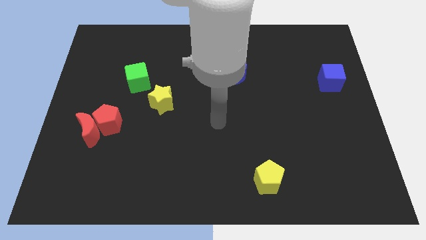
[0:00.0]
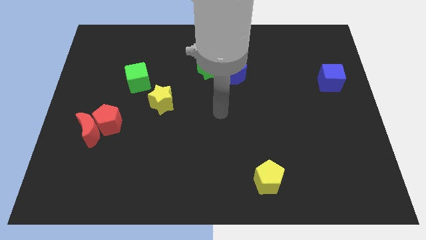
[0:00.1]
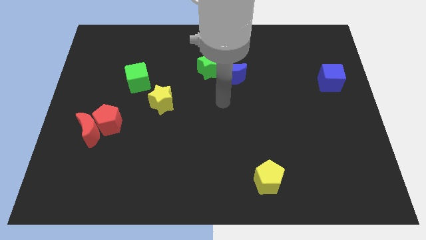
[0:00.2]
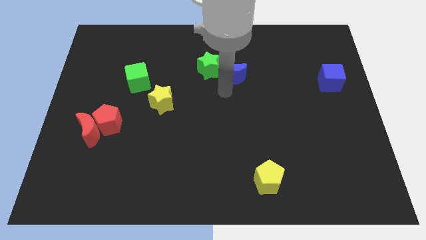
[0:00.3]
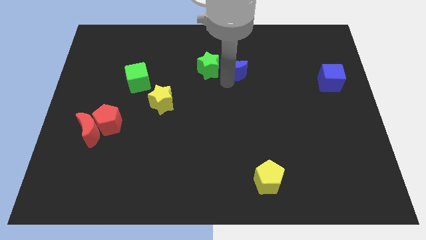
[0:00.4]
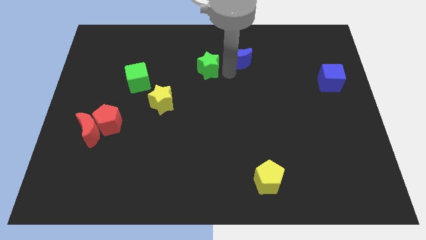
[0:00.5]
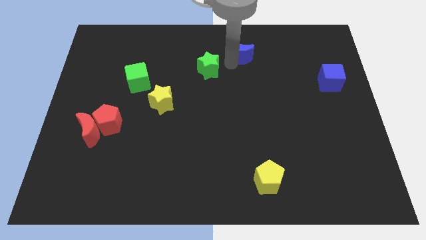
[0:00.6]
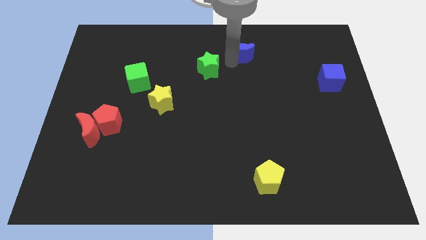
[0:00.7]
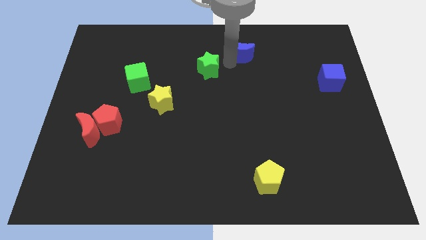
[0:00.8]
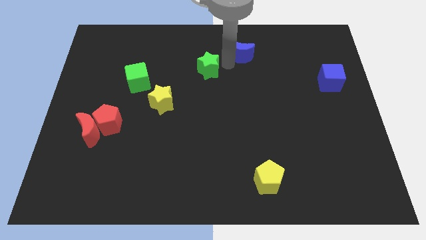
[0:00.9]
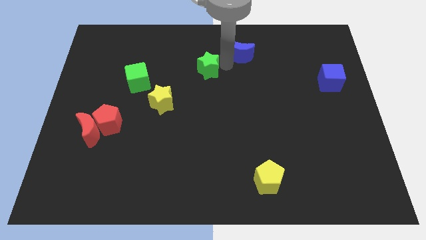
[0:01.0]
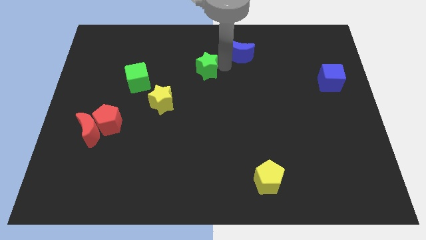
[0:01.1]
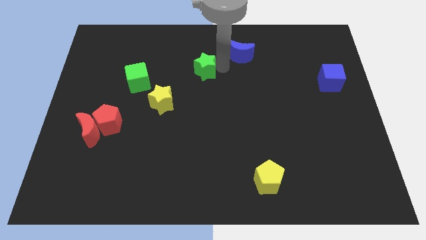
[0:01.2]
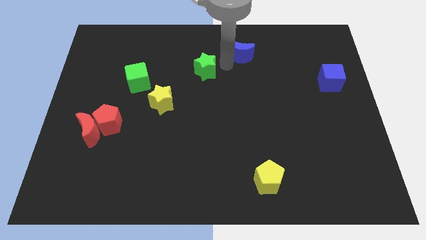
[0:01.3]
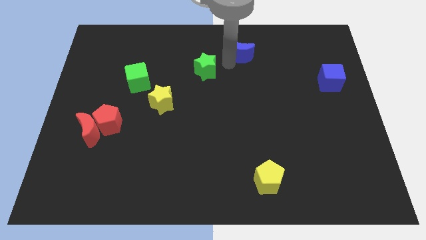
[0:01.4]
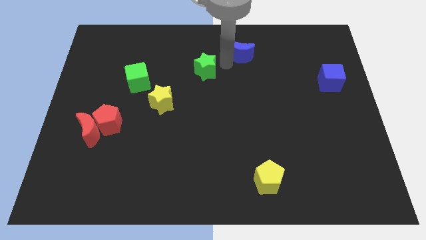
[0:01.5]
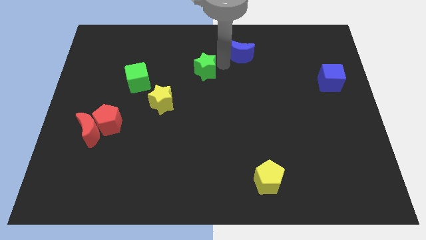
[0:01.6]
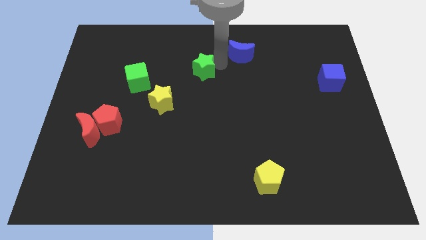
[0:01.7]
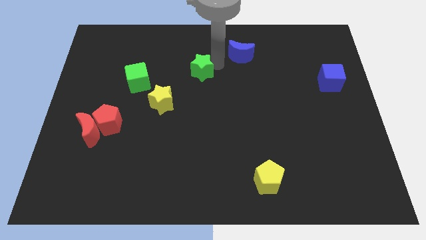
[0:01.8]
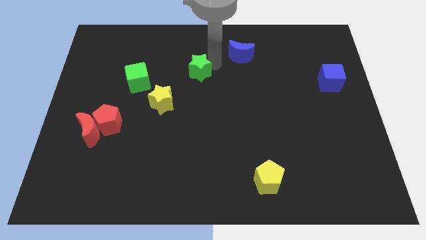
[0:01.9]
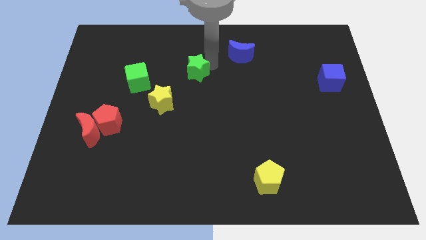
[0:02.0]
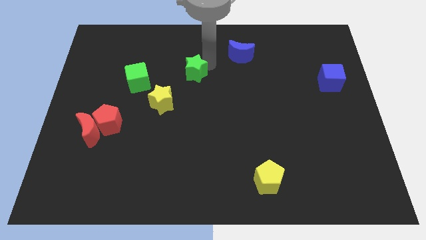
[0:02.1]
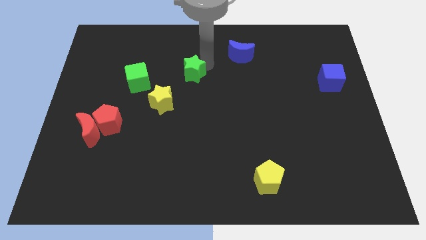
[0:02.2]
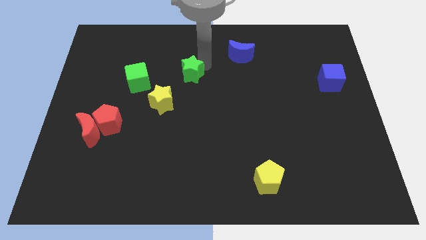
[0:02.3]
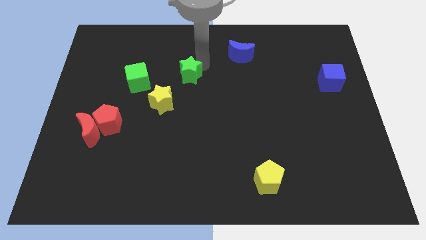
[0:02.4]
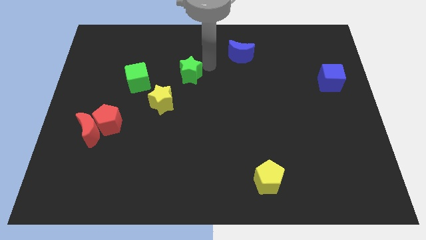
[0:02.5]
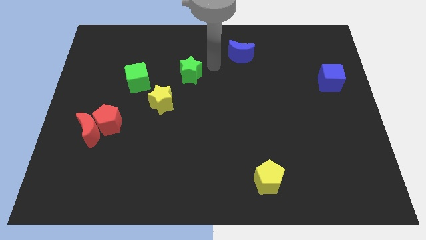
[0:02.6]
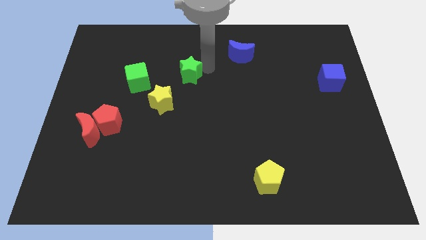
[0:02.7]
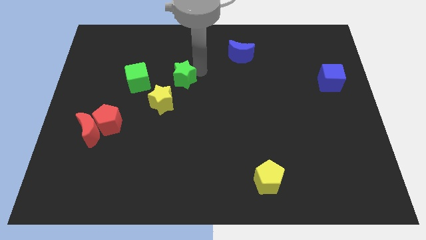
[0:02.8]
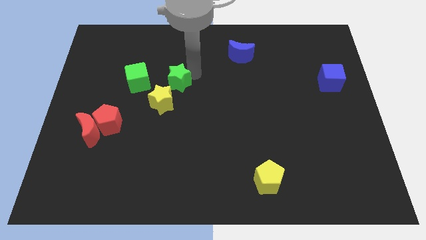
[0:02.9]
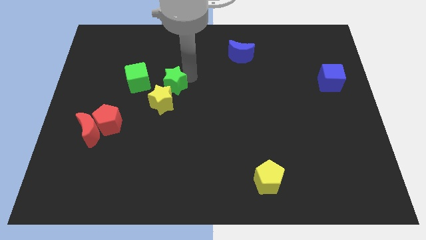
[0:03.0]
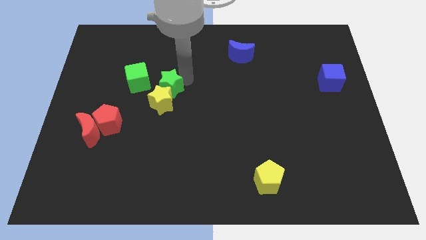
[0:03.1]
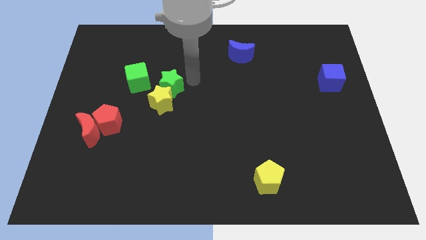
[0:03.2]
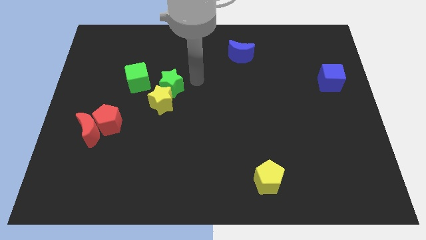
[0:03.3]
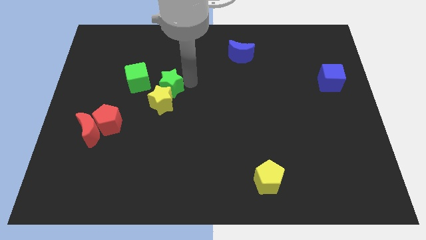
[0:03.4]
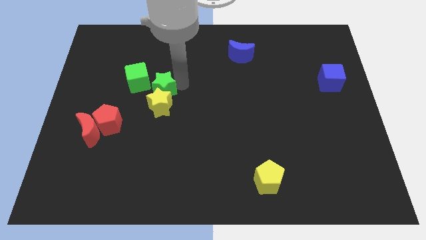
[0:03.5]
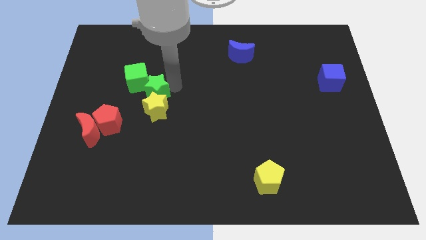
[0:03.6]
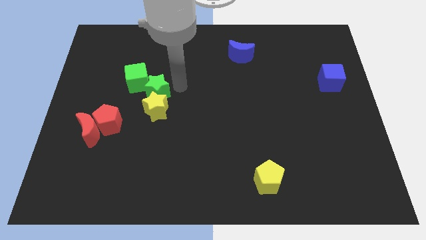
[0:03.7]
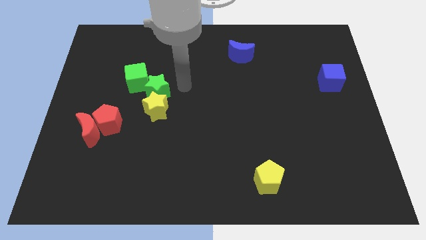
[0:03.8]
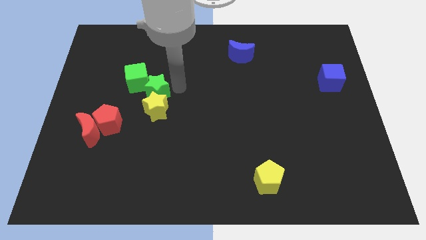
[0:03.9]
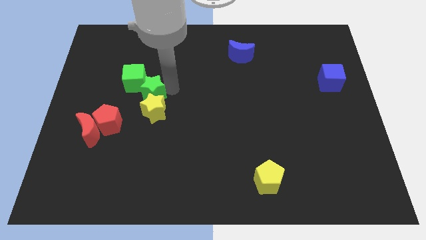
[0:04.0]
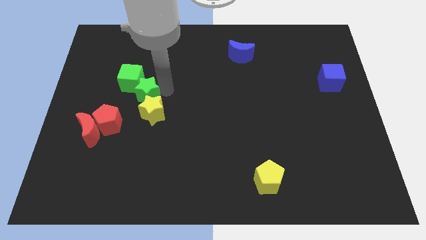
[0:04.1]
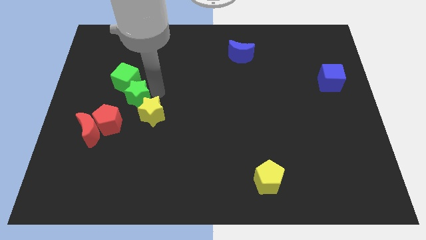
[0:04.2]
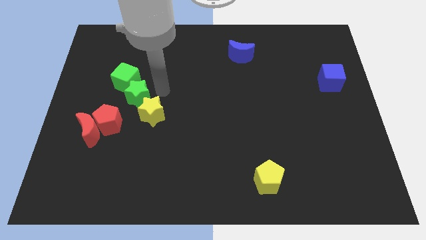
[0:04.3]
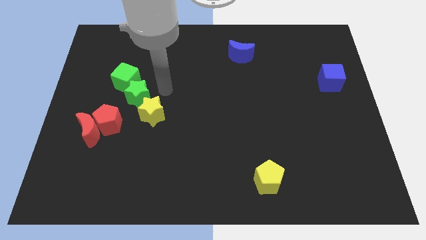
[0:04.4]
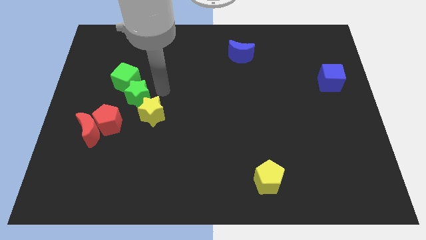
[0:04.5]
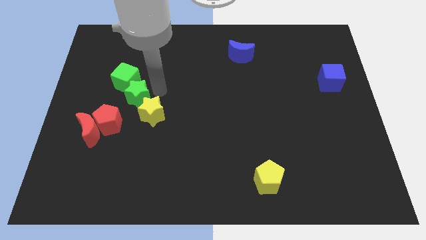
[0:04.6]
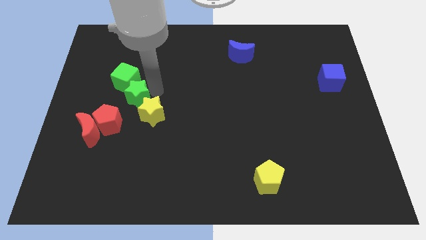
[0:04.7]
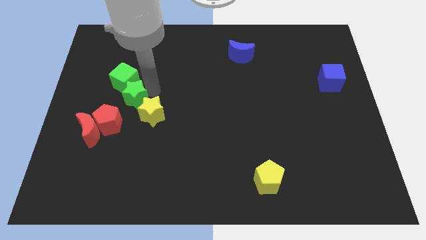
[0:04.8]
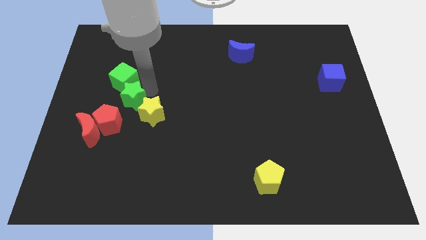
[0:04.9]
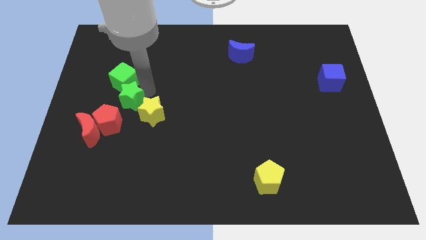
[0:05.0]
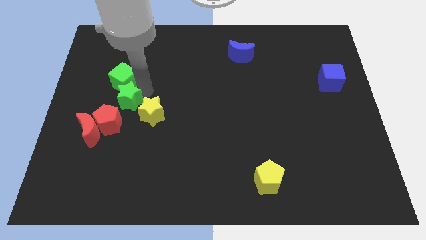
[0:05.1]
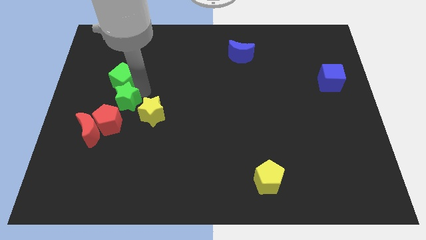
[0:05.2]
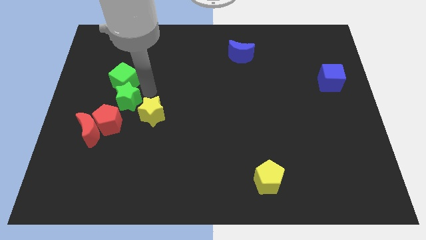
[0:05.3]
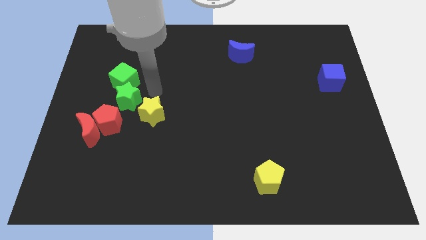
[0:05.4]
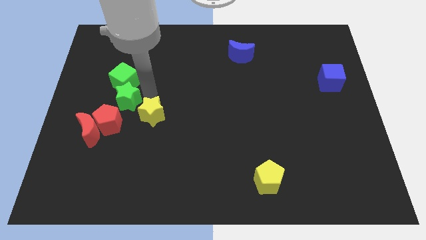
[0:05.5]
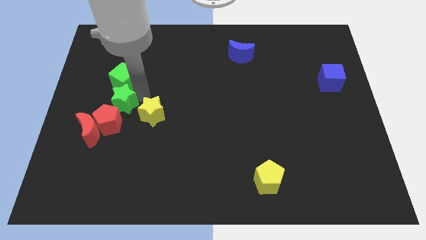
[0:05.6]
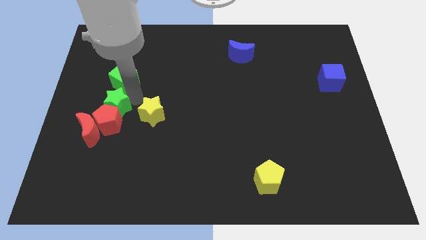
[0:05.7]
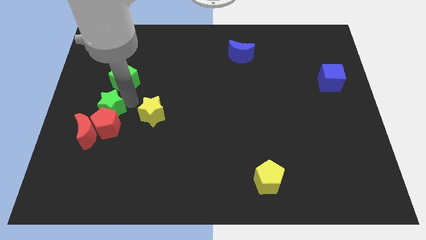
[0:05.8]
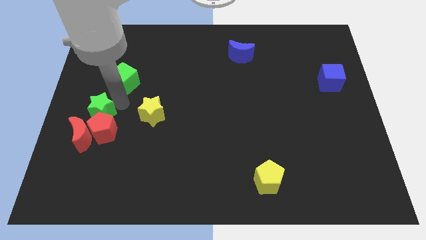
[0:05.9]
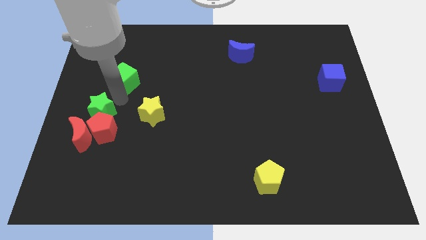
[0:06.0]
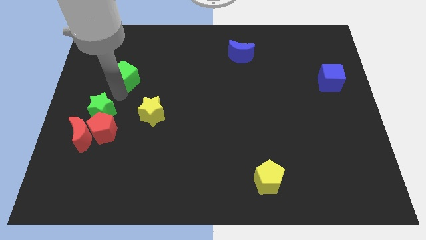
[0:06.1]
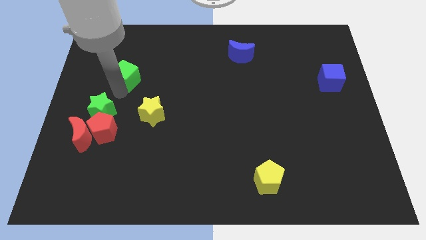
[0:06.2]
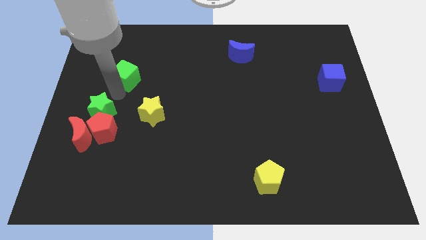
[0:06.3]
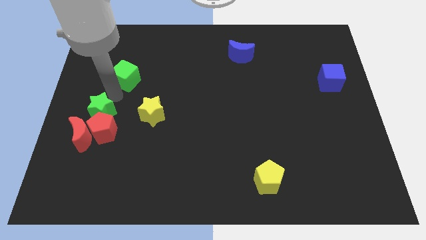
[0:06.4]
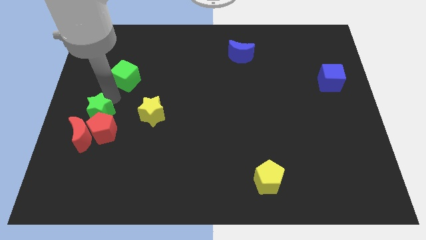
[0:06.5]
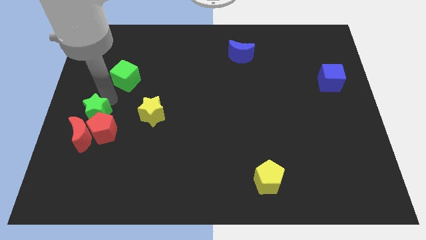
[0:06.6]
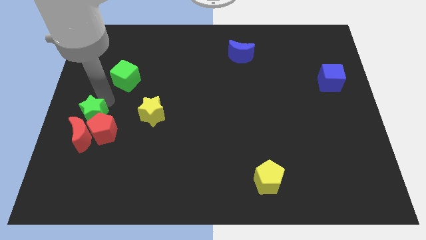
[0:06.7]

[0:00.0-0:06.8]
put the green star to the red moon
